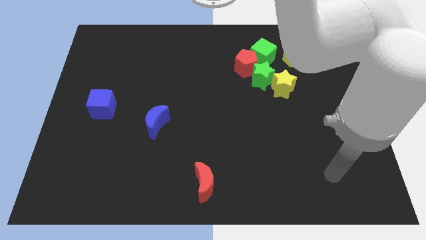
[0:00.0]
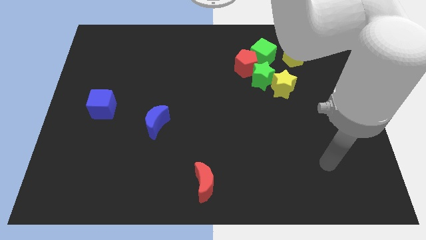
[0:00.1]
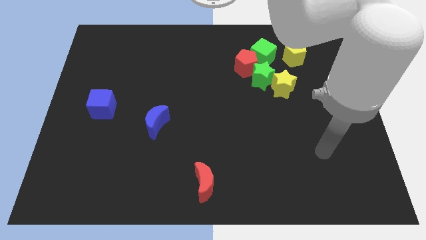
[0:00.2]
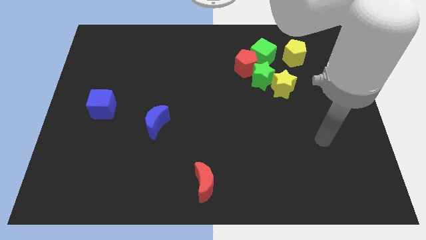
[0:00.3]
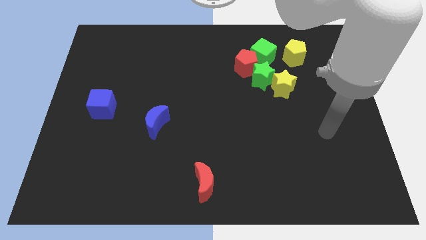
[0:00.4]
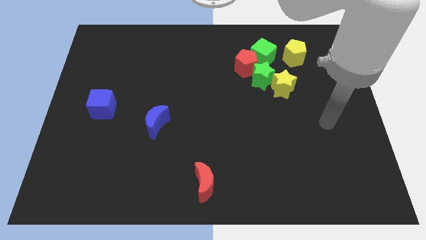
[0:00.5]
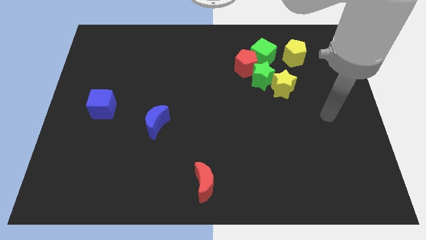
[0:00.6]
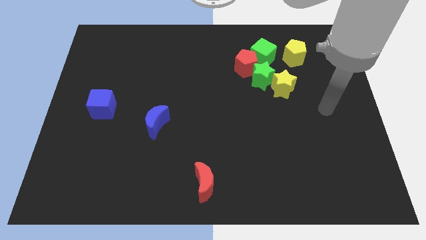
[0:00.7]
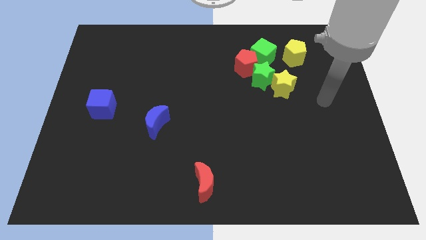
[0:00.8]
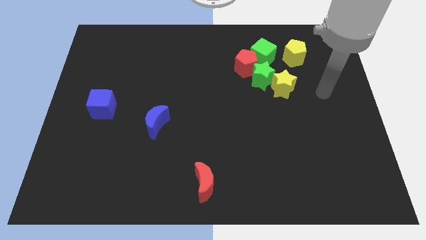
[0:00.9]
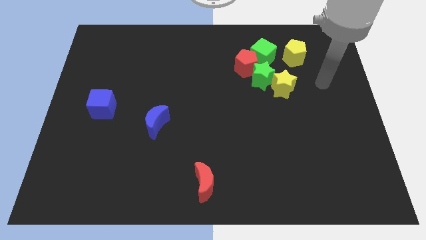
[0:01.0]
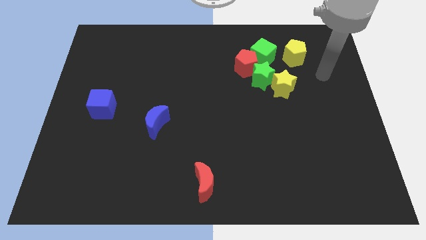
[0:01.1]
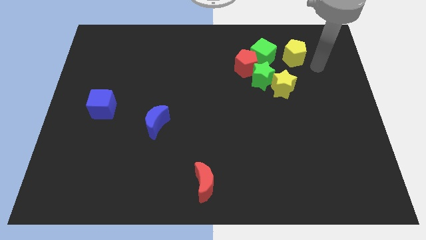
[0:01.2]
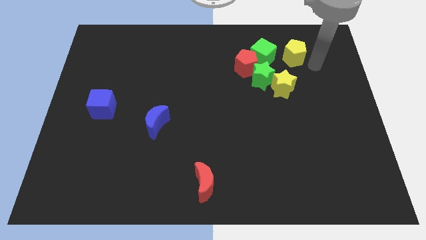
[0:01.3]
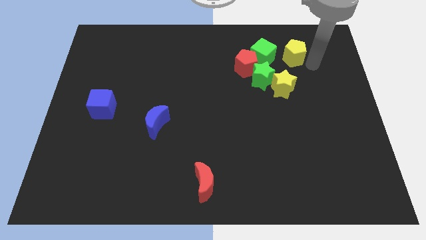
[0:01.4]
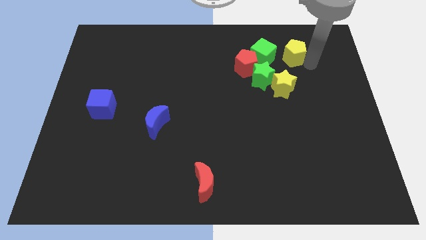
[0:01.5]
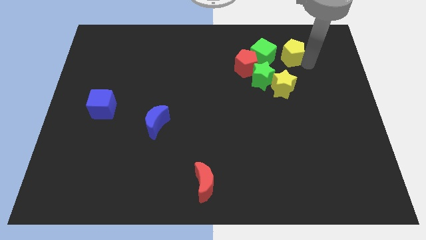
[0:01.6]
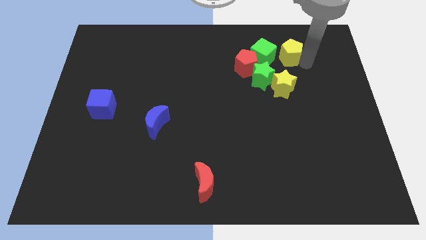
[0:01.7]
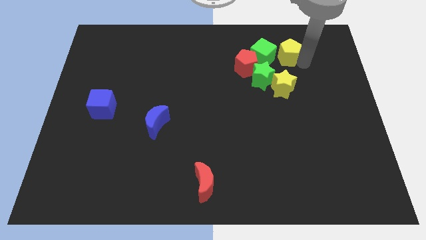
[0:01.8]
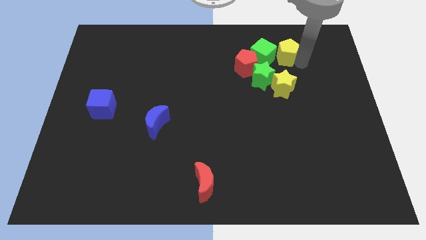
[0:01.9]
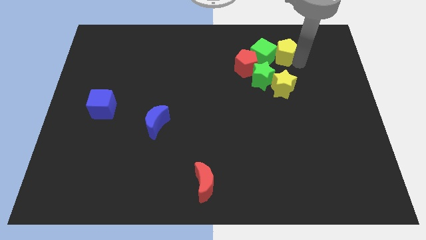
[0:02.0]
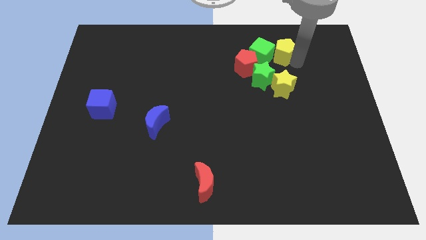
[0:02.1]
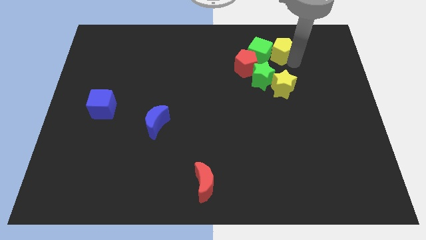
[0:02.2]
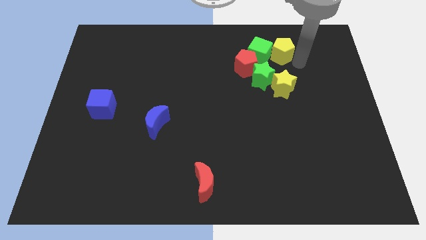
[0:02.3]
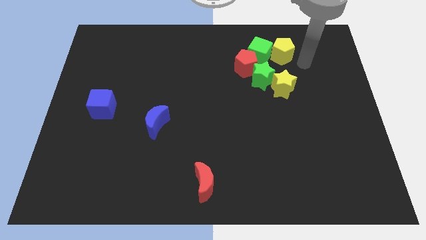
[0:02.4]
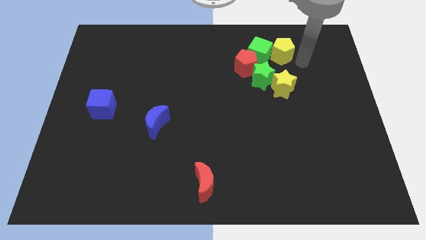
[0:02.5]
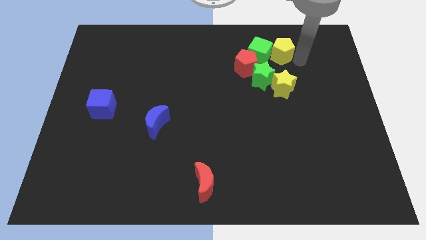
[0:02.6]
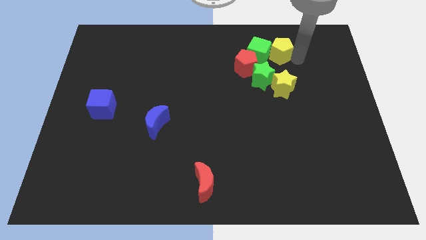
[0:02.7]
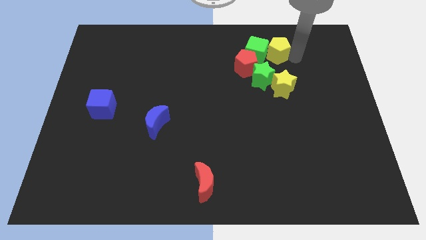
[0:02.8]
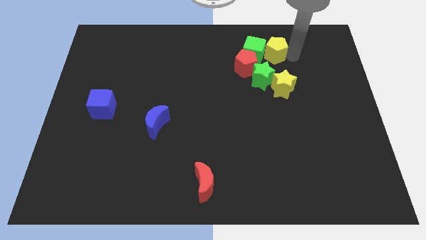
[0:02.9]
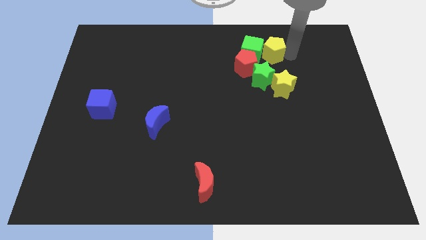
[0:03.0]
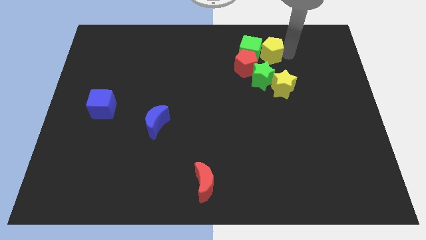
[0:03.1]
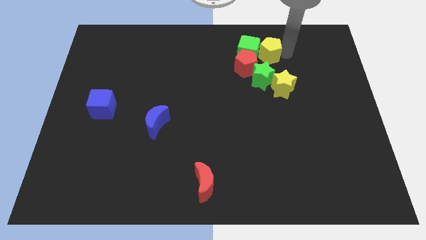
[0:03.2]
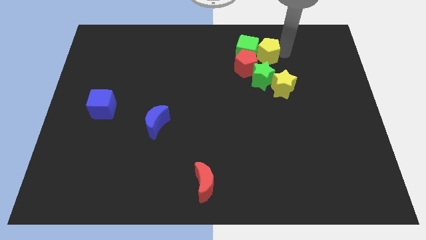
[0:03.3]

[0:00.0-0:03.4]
slide the yellow pentagon somewhat left

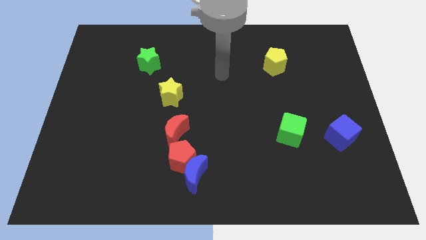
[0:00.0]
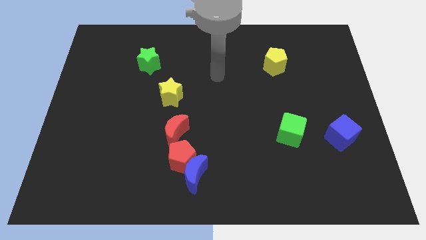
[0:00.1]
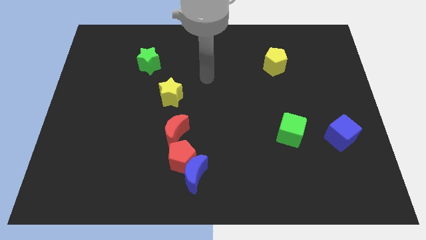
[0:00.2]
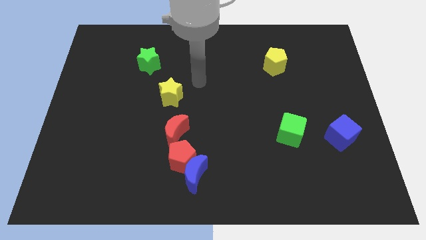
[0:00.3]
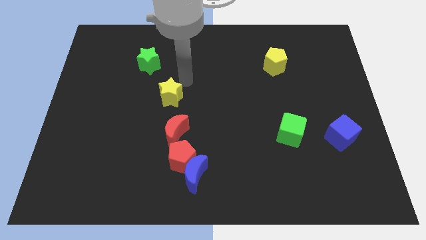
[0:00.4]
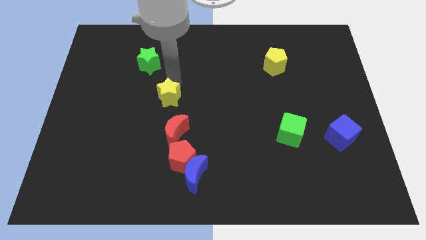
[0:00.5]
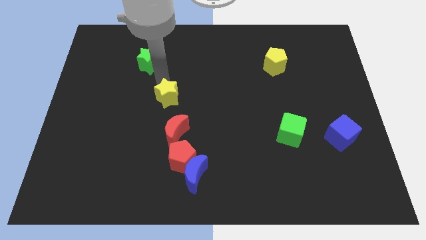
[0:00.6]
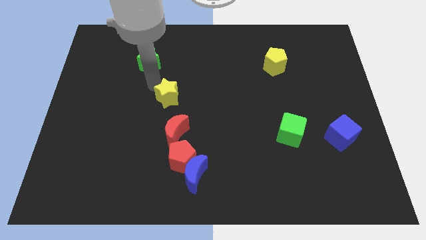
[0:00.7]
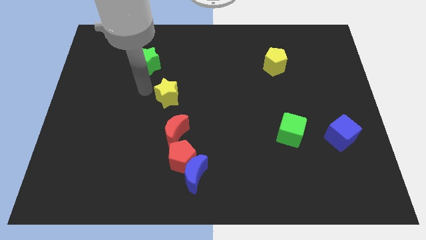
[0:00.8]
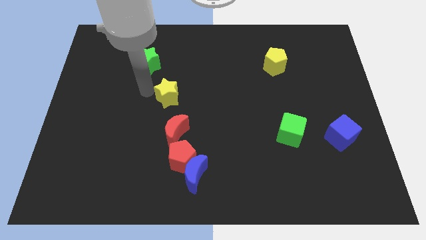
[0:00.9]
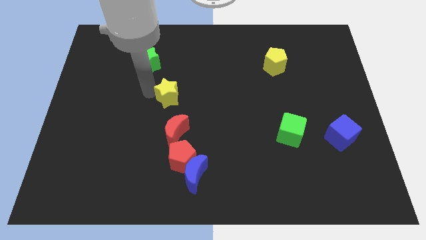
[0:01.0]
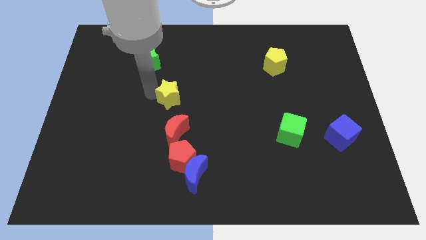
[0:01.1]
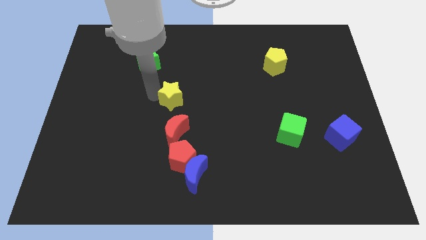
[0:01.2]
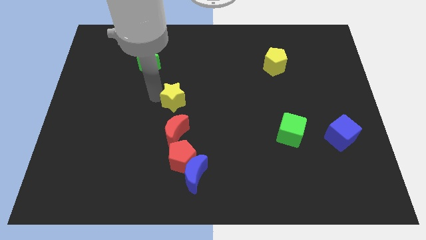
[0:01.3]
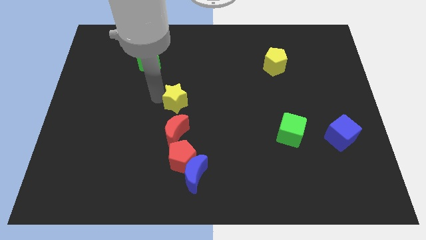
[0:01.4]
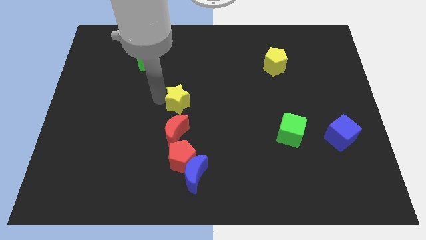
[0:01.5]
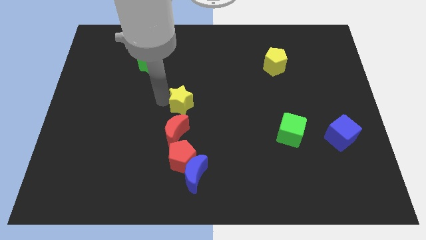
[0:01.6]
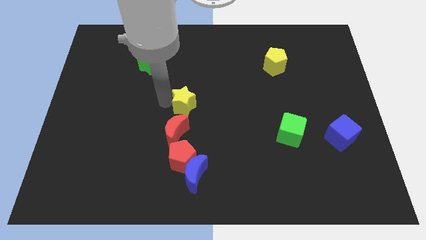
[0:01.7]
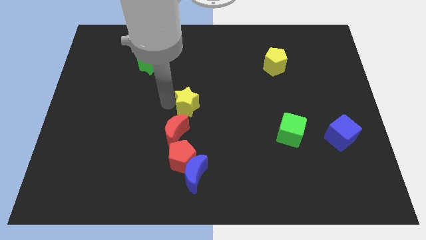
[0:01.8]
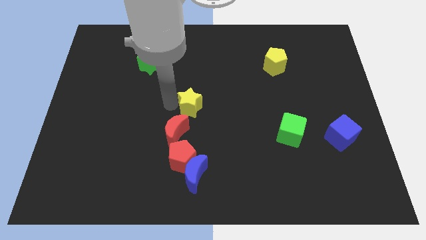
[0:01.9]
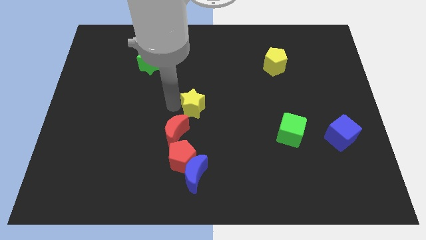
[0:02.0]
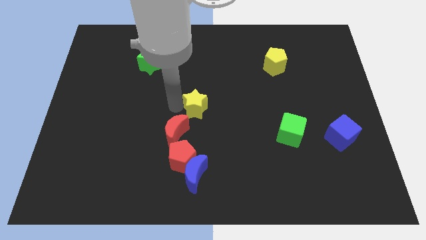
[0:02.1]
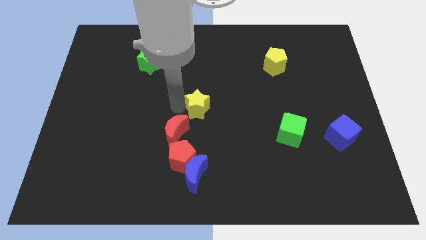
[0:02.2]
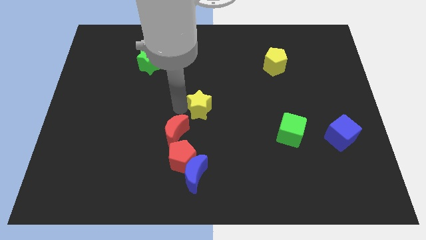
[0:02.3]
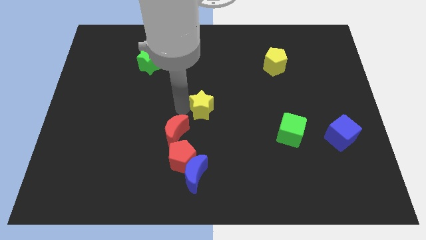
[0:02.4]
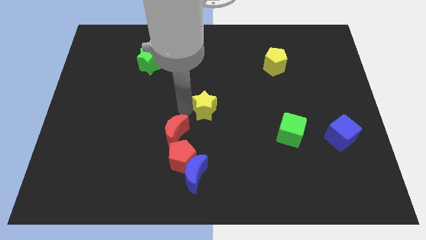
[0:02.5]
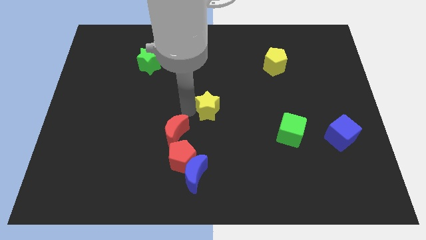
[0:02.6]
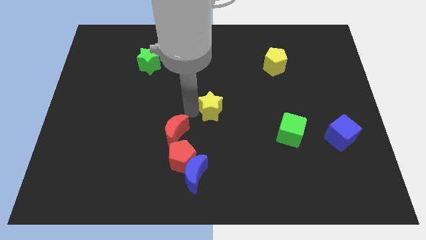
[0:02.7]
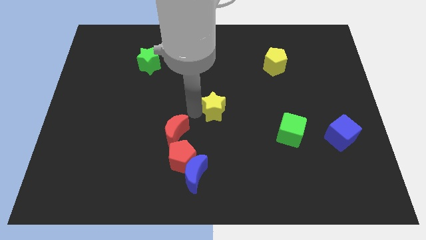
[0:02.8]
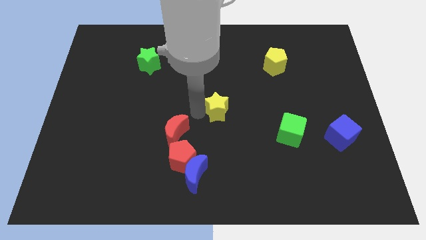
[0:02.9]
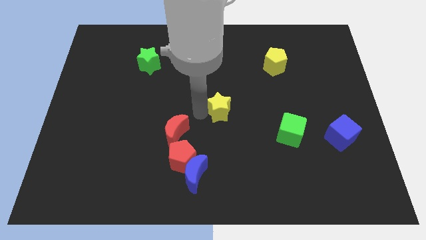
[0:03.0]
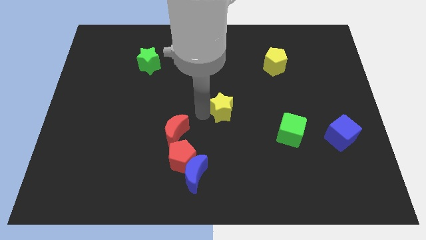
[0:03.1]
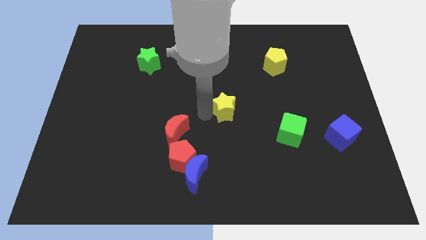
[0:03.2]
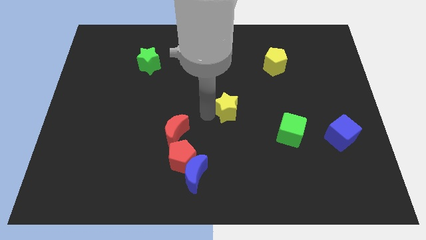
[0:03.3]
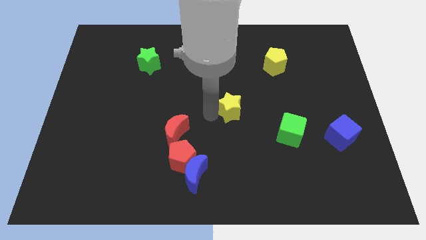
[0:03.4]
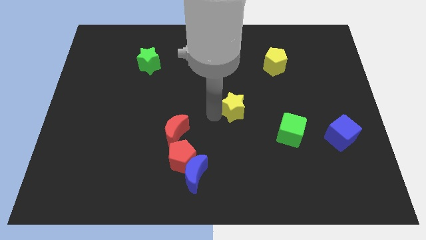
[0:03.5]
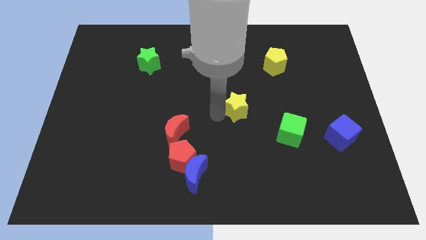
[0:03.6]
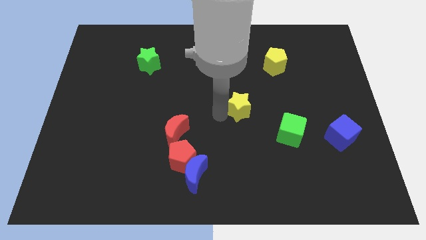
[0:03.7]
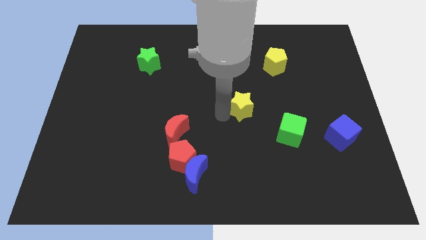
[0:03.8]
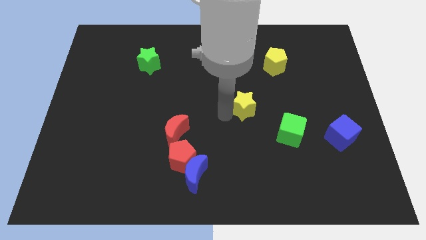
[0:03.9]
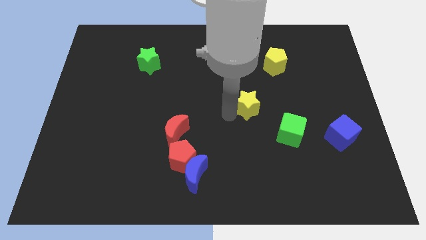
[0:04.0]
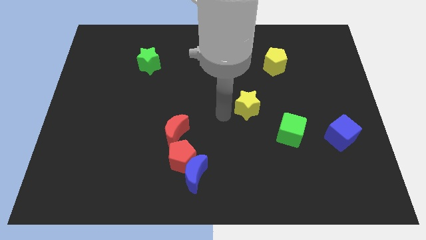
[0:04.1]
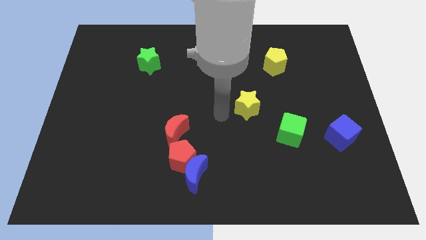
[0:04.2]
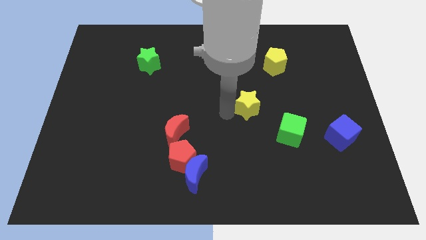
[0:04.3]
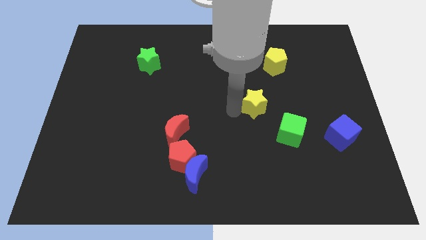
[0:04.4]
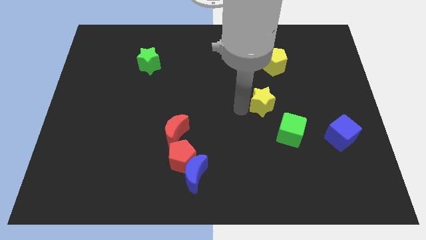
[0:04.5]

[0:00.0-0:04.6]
move the yellow star to the right
